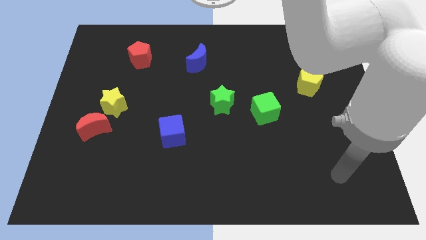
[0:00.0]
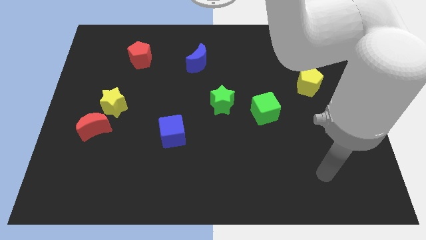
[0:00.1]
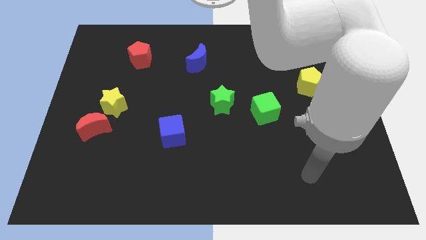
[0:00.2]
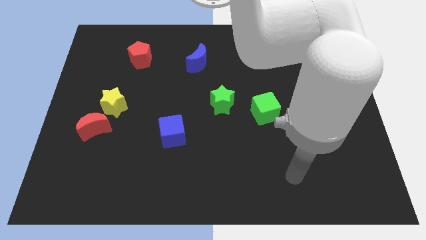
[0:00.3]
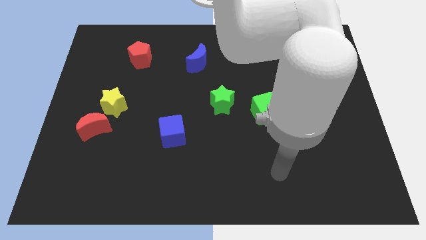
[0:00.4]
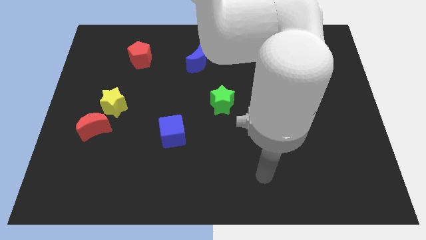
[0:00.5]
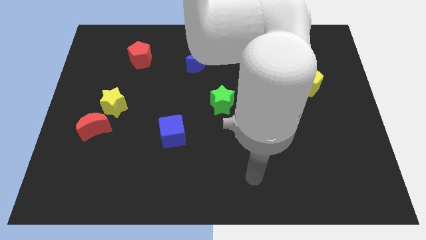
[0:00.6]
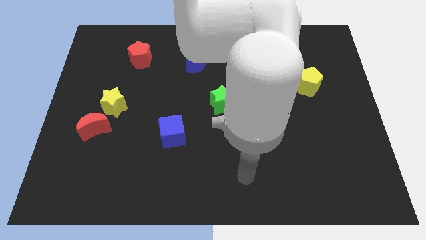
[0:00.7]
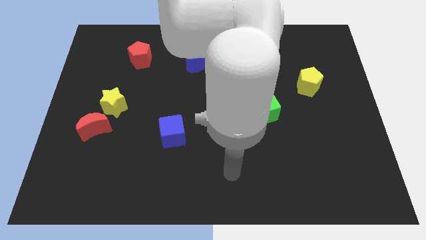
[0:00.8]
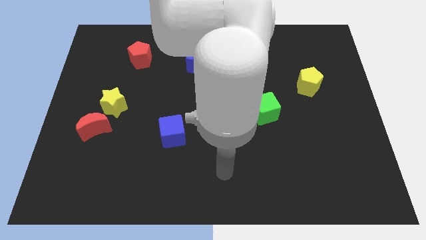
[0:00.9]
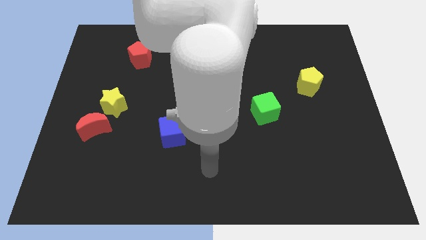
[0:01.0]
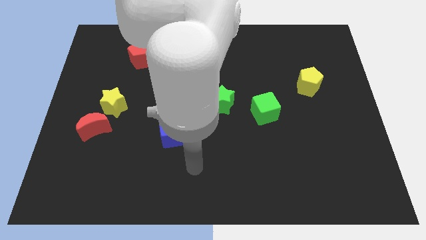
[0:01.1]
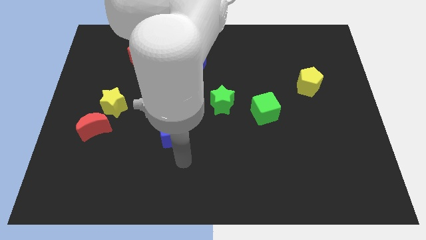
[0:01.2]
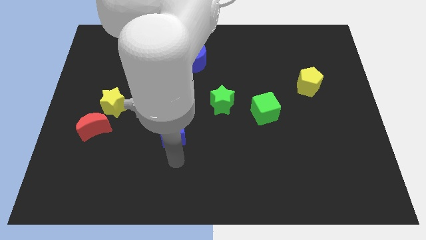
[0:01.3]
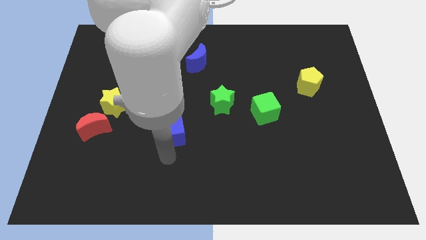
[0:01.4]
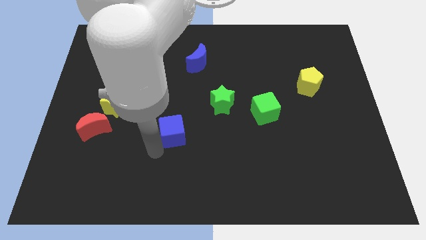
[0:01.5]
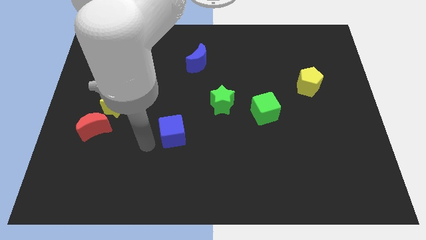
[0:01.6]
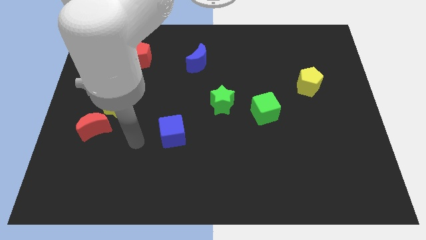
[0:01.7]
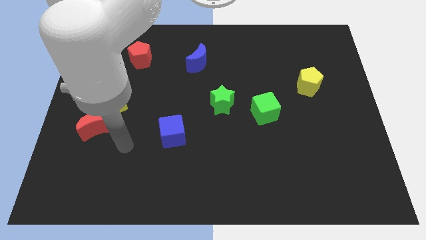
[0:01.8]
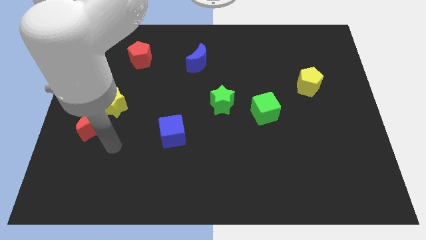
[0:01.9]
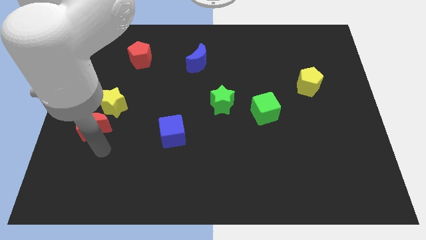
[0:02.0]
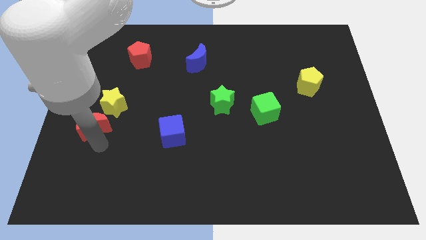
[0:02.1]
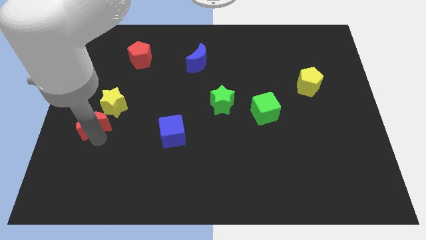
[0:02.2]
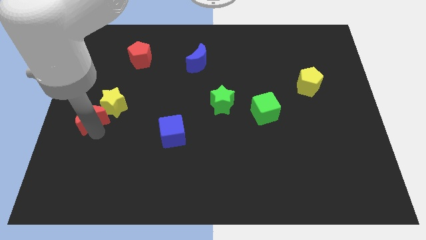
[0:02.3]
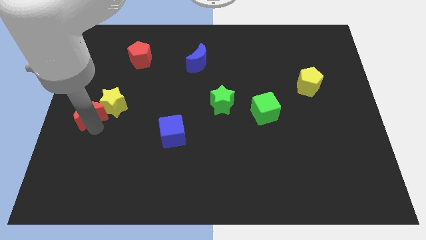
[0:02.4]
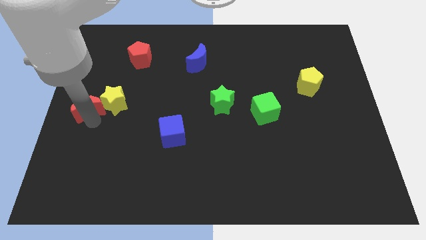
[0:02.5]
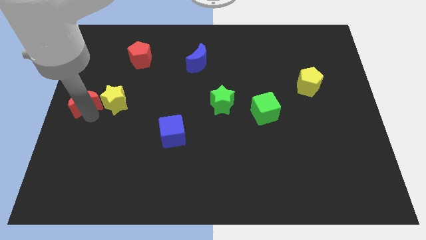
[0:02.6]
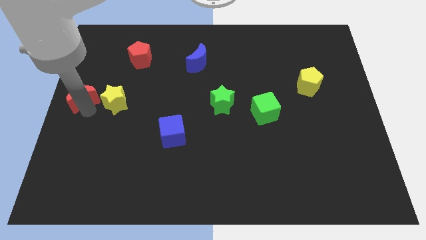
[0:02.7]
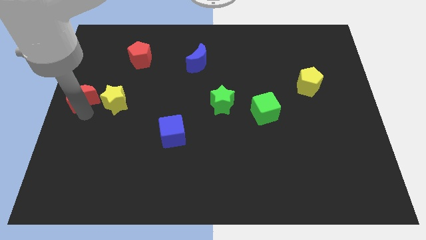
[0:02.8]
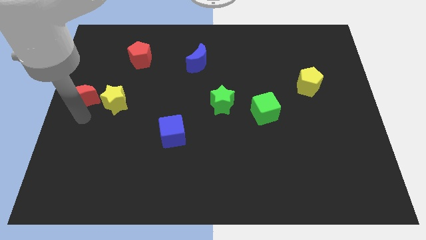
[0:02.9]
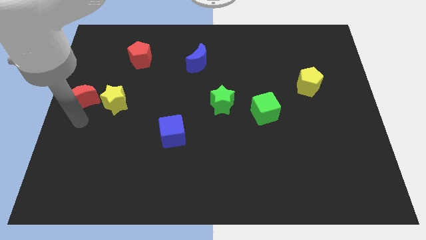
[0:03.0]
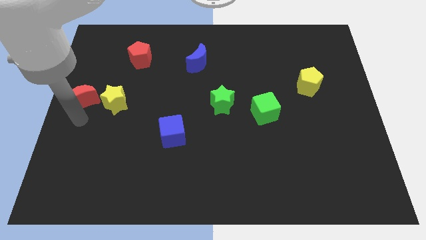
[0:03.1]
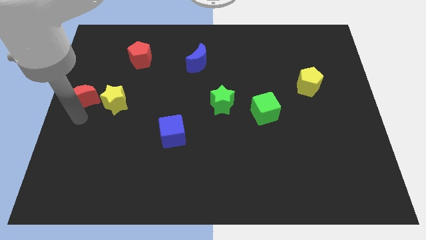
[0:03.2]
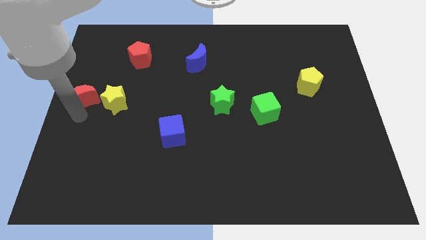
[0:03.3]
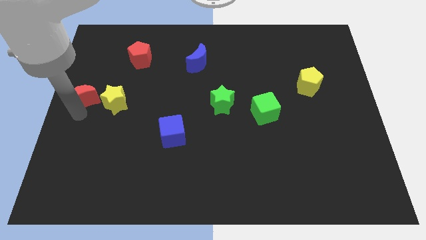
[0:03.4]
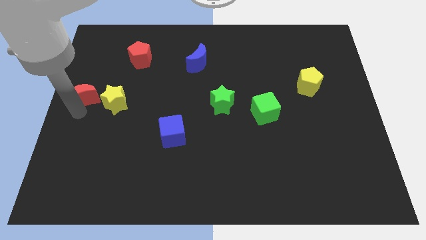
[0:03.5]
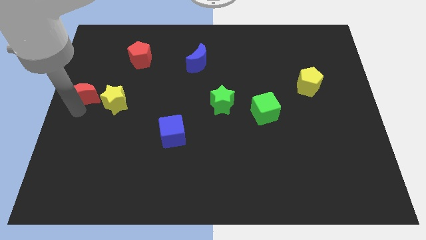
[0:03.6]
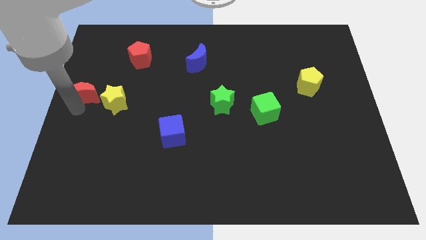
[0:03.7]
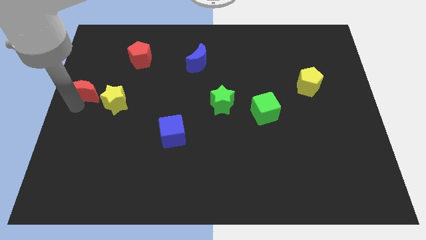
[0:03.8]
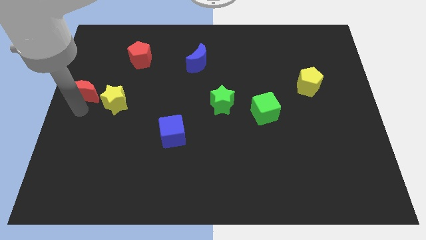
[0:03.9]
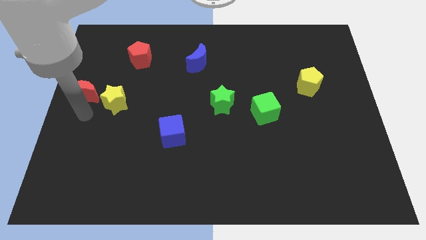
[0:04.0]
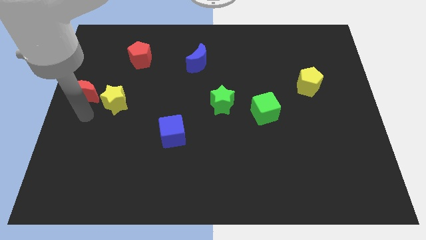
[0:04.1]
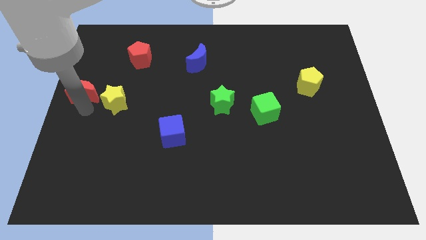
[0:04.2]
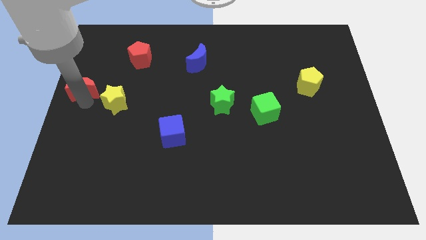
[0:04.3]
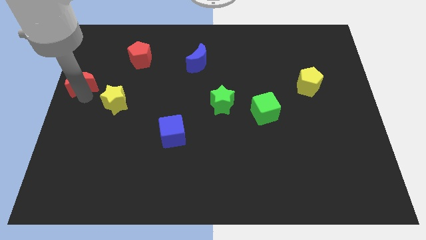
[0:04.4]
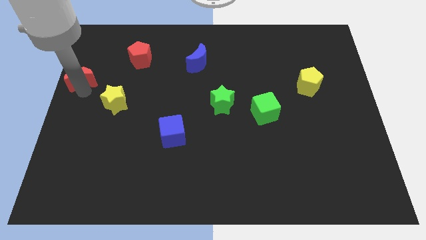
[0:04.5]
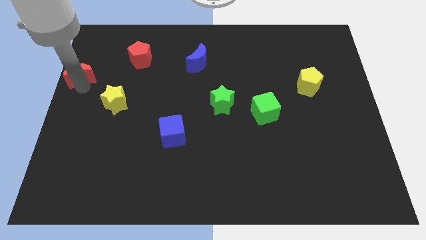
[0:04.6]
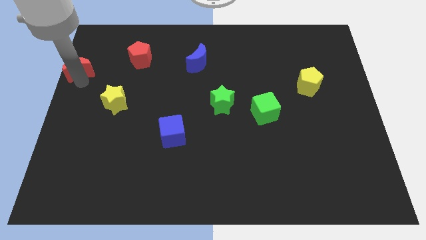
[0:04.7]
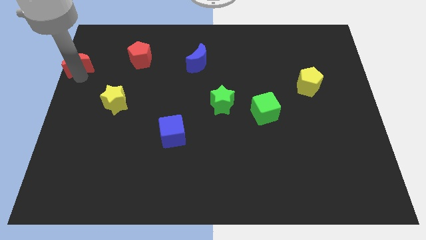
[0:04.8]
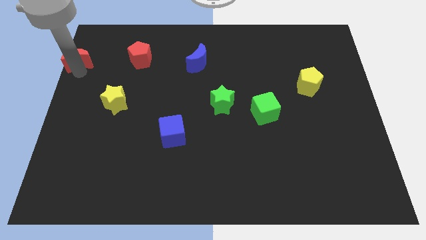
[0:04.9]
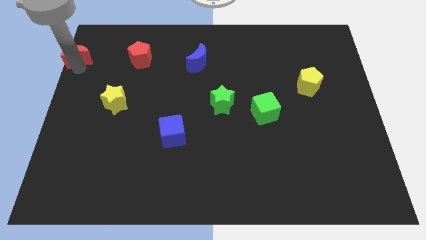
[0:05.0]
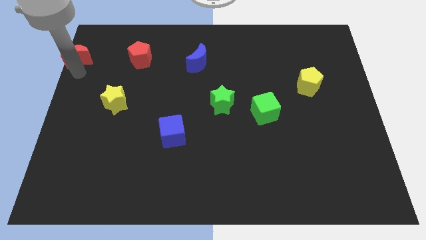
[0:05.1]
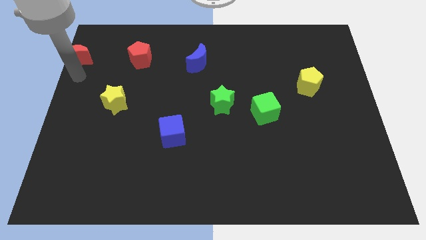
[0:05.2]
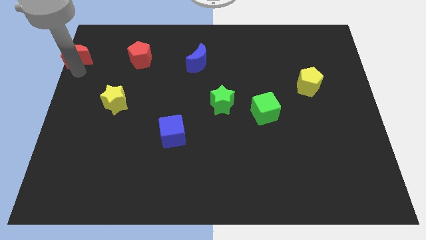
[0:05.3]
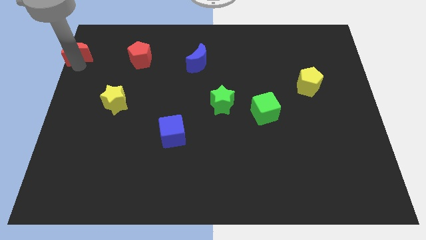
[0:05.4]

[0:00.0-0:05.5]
move the red moon to the top left corner
